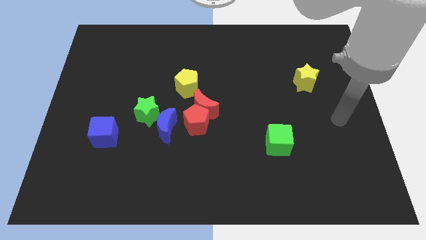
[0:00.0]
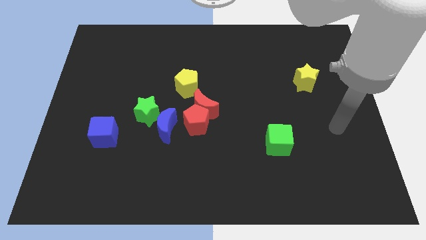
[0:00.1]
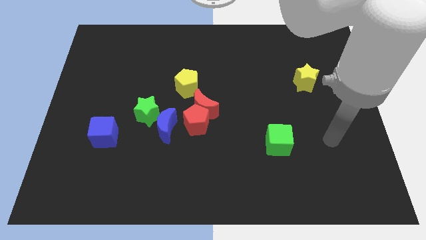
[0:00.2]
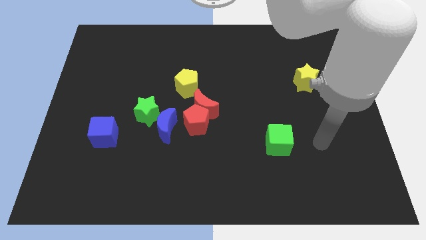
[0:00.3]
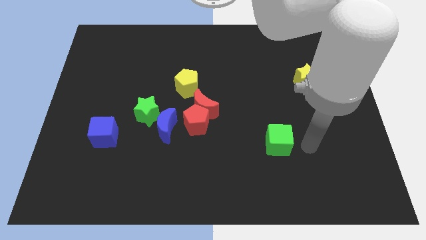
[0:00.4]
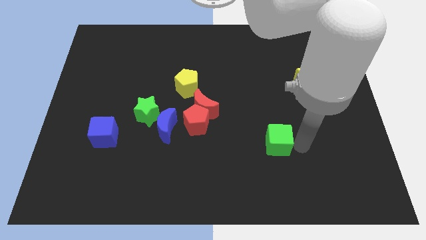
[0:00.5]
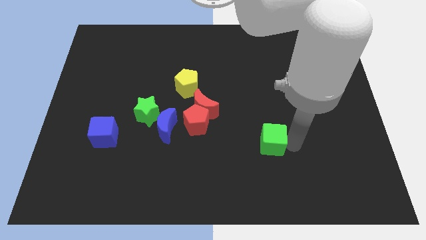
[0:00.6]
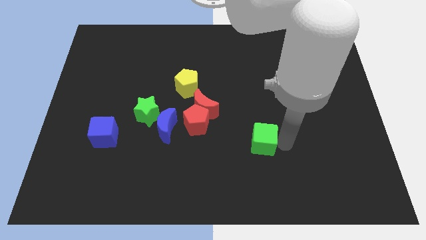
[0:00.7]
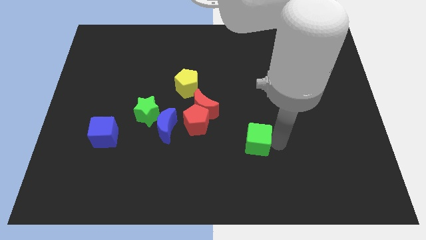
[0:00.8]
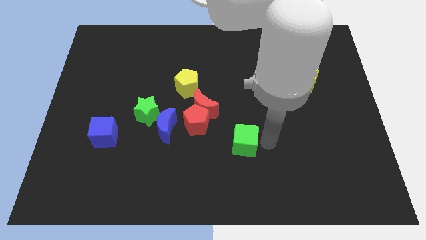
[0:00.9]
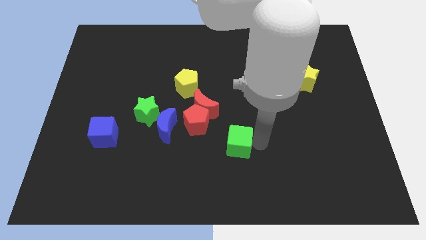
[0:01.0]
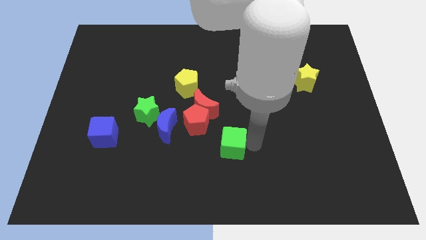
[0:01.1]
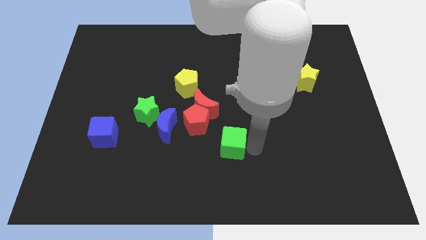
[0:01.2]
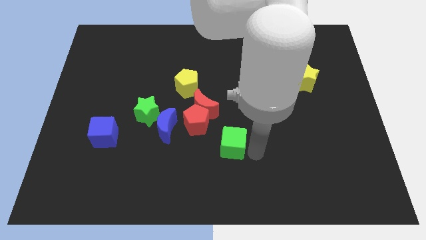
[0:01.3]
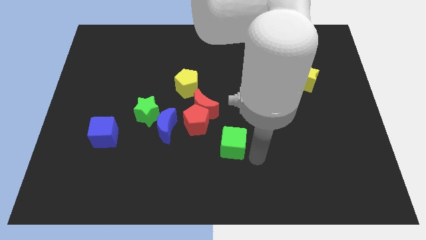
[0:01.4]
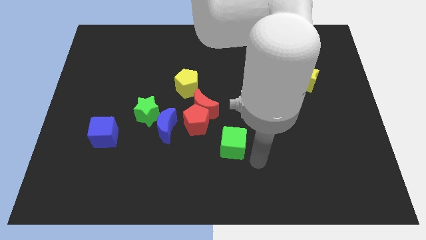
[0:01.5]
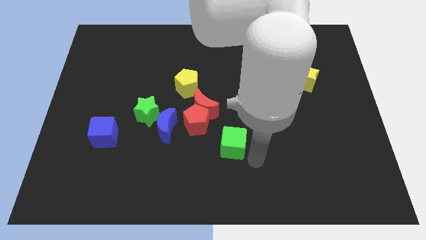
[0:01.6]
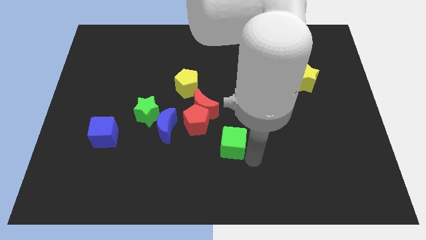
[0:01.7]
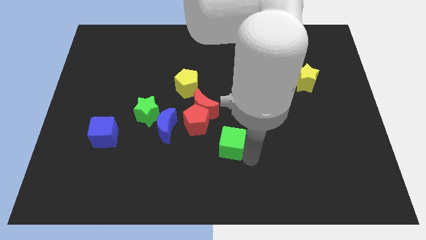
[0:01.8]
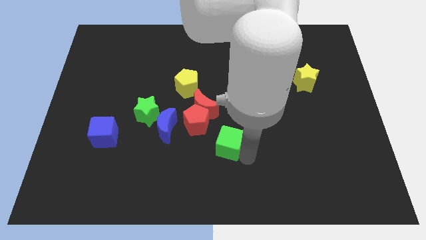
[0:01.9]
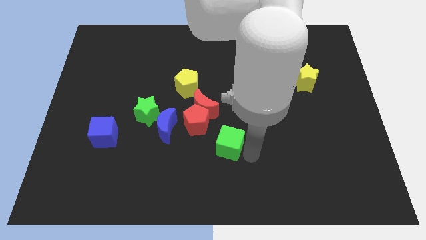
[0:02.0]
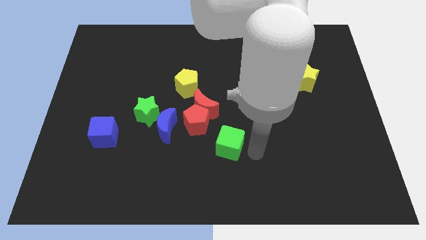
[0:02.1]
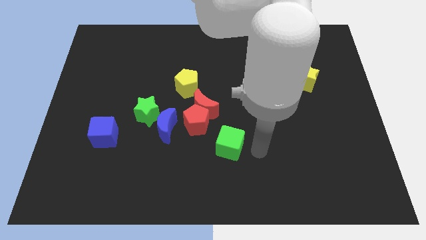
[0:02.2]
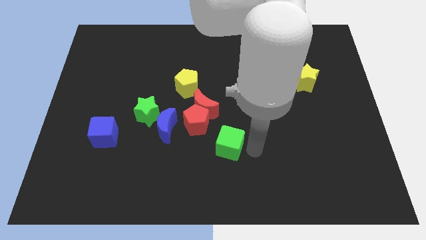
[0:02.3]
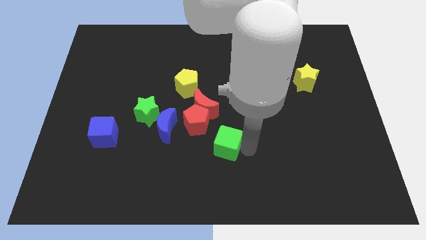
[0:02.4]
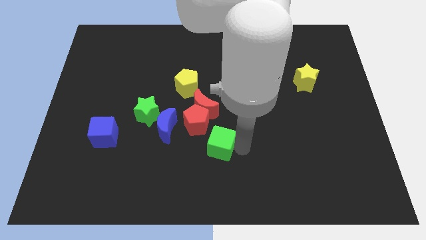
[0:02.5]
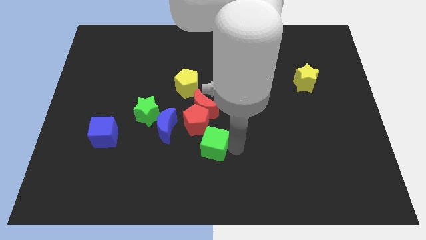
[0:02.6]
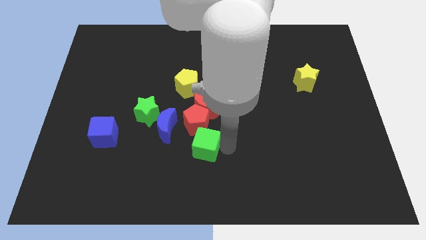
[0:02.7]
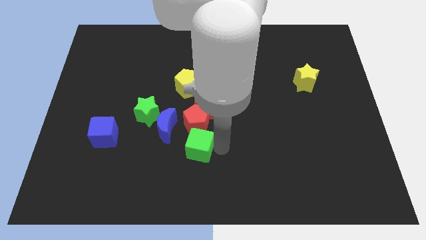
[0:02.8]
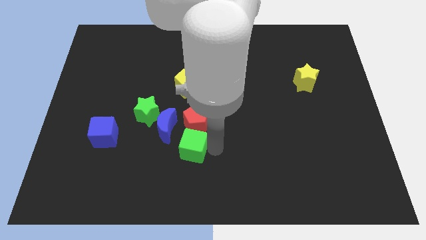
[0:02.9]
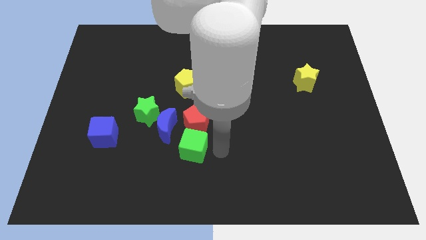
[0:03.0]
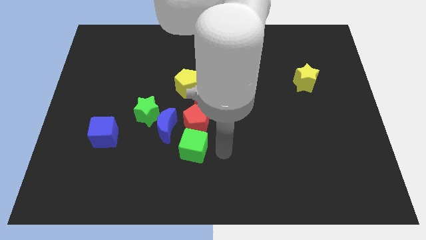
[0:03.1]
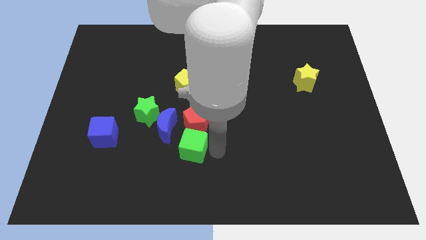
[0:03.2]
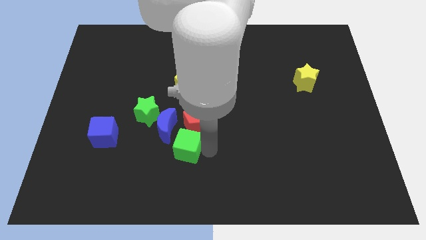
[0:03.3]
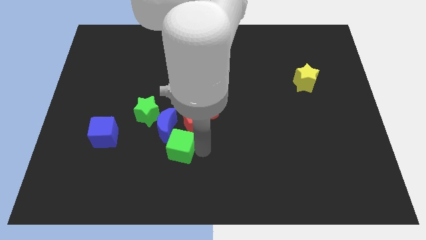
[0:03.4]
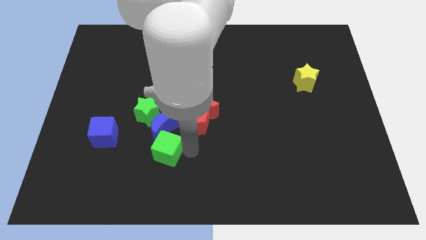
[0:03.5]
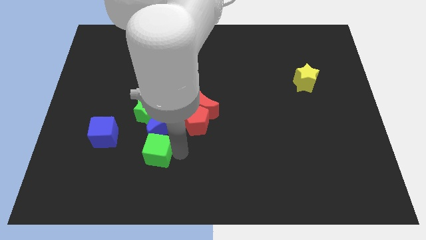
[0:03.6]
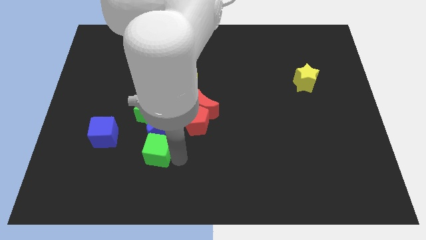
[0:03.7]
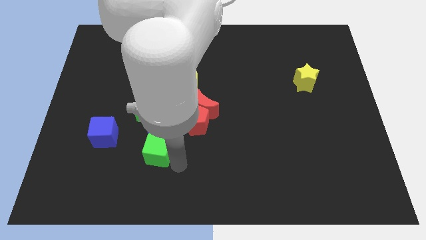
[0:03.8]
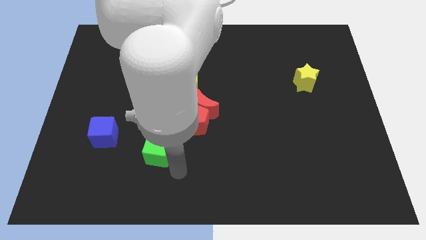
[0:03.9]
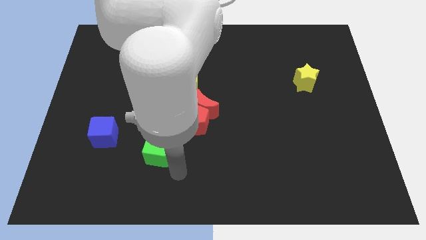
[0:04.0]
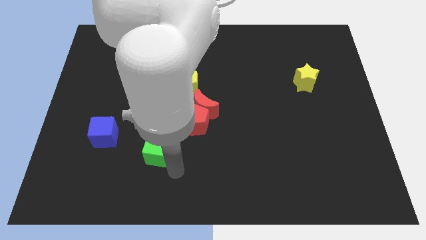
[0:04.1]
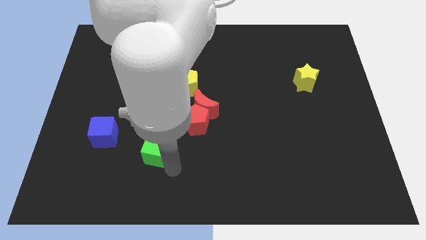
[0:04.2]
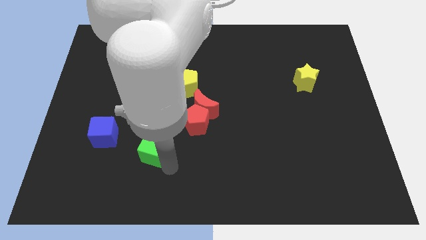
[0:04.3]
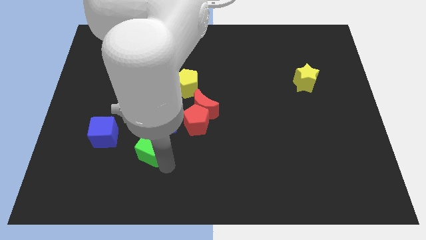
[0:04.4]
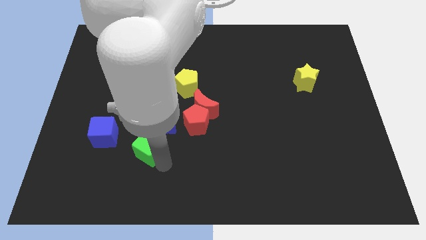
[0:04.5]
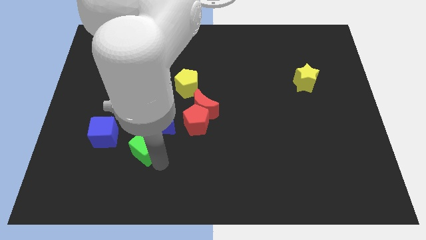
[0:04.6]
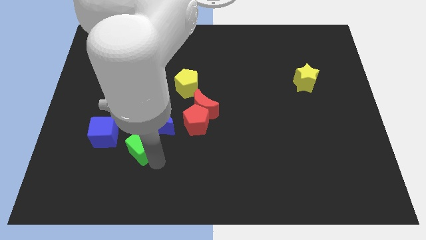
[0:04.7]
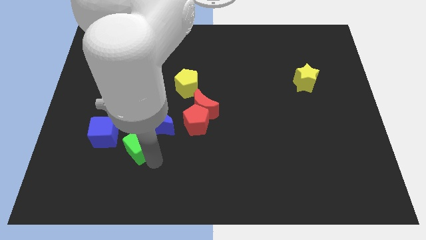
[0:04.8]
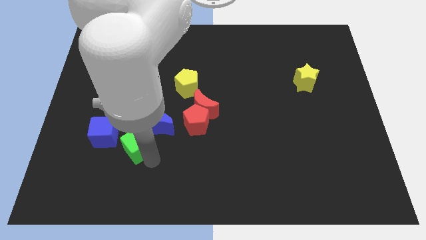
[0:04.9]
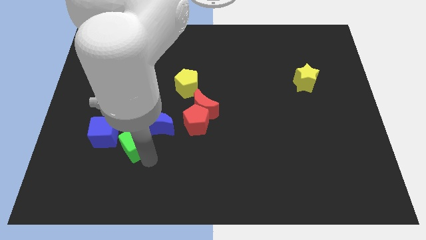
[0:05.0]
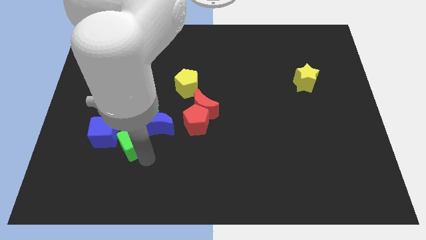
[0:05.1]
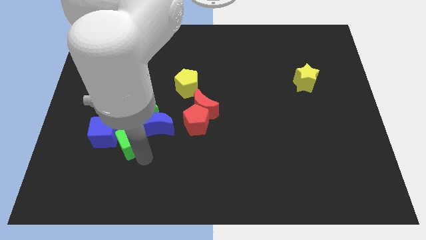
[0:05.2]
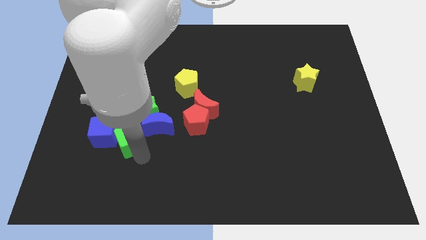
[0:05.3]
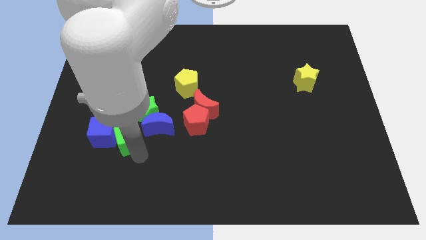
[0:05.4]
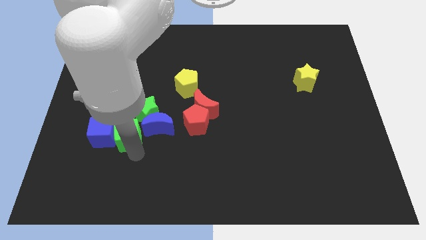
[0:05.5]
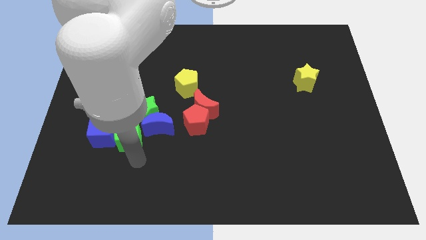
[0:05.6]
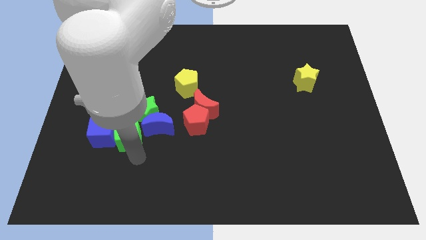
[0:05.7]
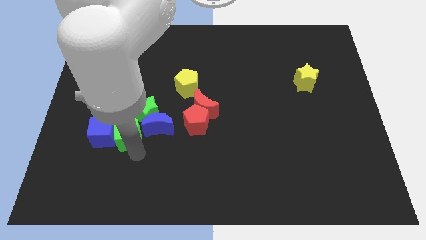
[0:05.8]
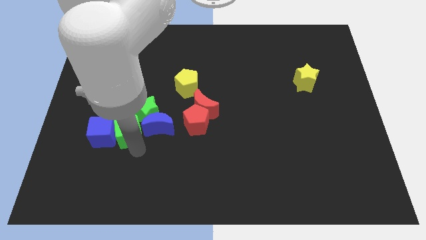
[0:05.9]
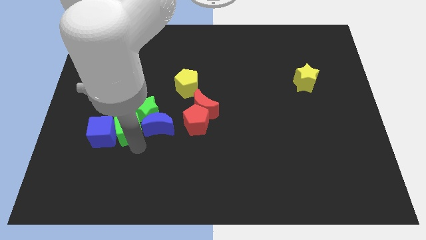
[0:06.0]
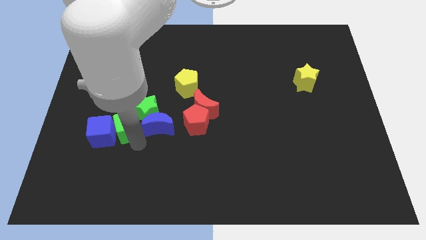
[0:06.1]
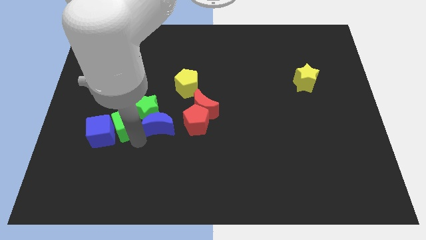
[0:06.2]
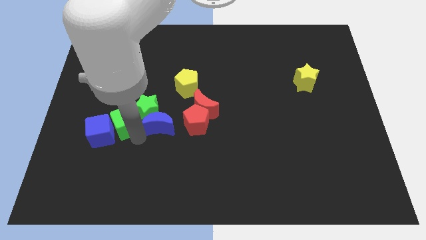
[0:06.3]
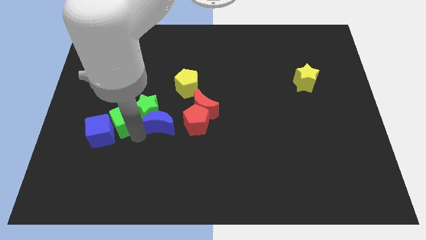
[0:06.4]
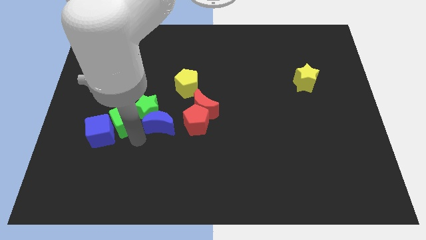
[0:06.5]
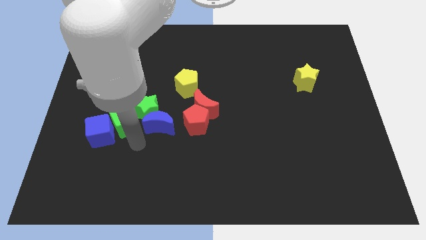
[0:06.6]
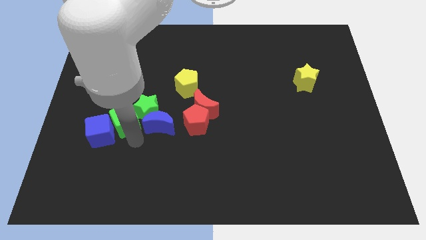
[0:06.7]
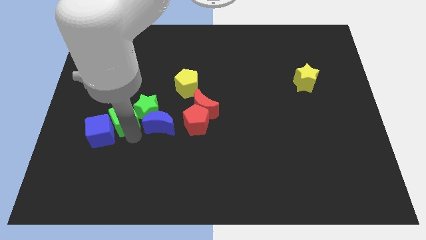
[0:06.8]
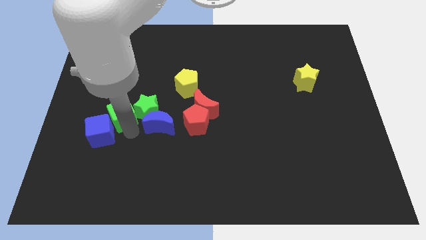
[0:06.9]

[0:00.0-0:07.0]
slide the green cube above the blue cube
